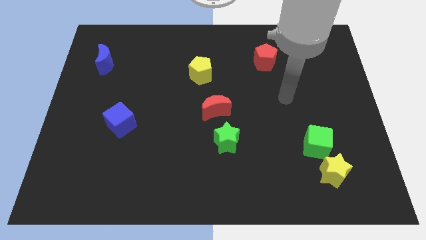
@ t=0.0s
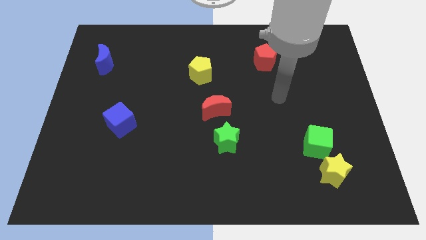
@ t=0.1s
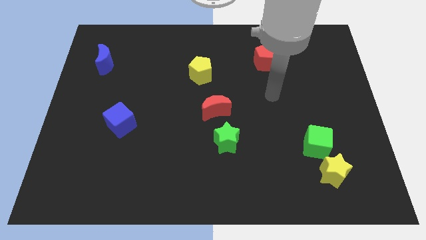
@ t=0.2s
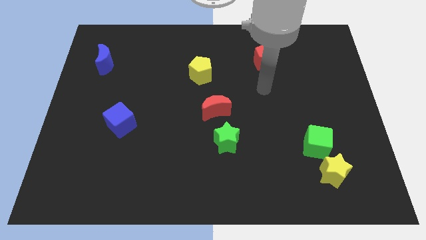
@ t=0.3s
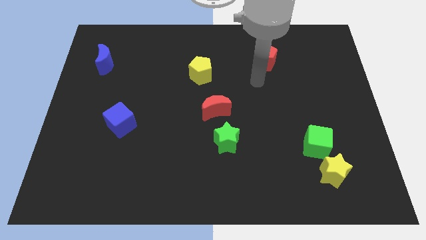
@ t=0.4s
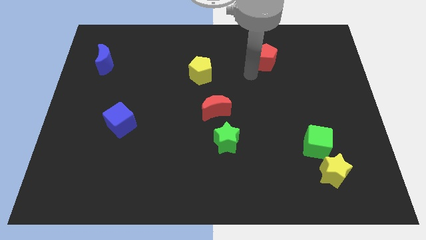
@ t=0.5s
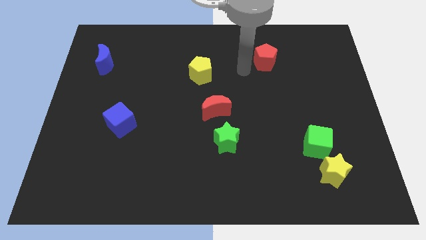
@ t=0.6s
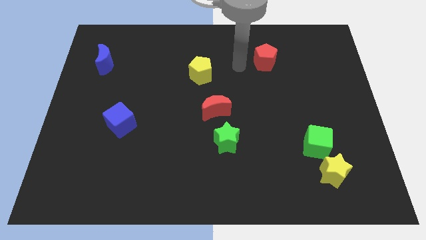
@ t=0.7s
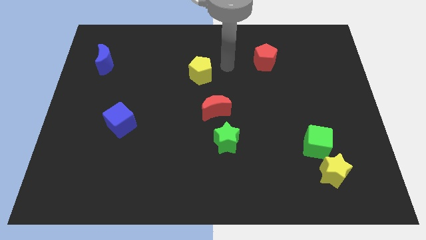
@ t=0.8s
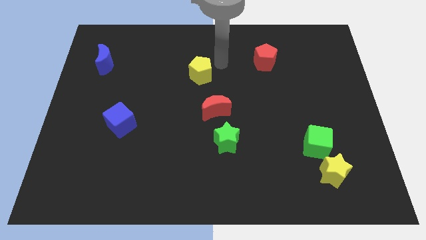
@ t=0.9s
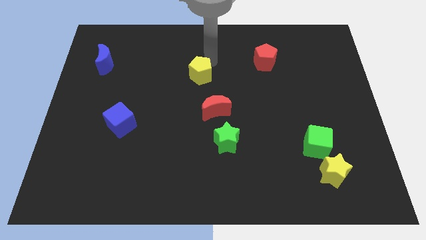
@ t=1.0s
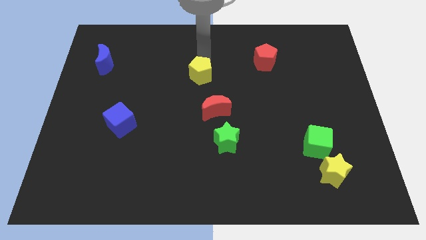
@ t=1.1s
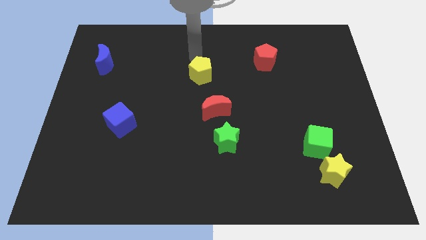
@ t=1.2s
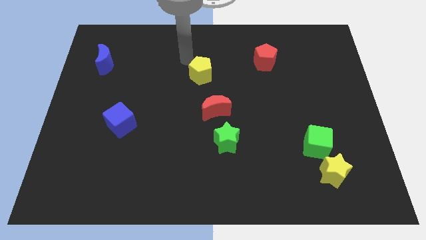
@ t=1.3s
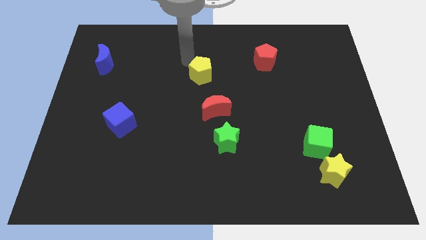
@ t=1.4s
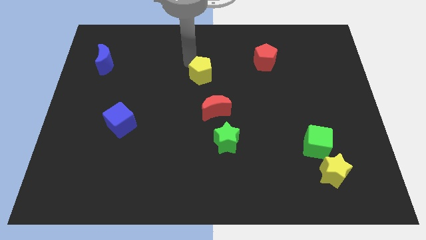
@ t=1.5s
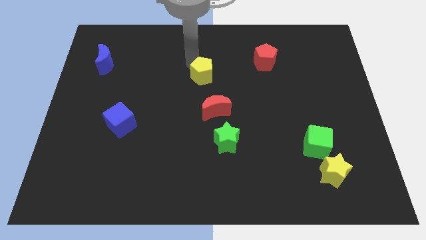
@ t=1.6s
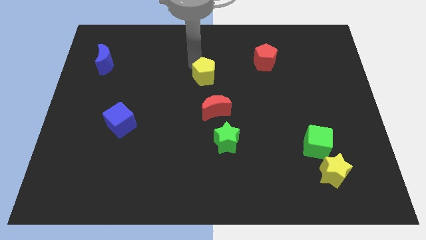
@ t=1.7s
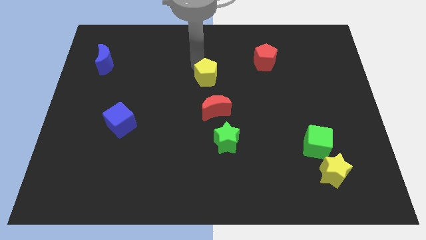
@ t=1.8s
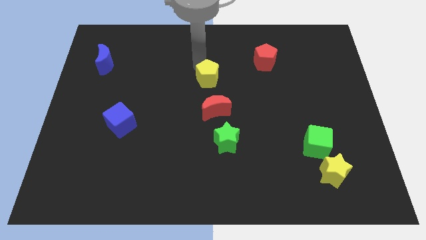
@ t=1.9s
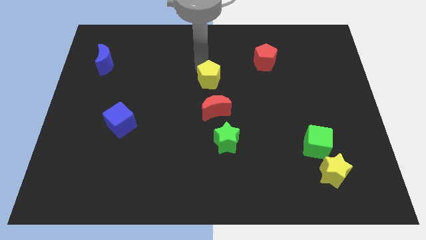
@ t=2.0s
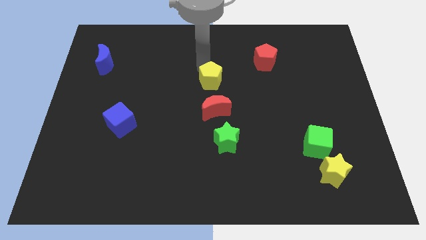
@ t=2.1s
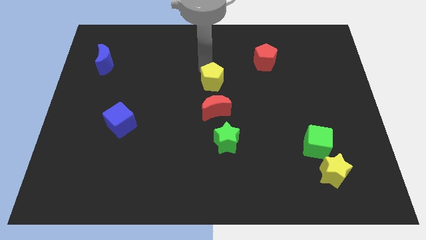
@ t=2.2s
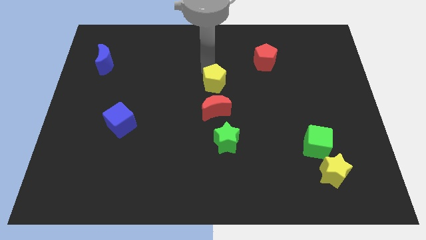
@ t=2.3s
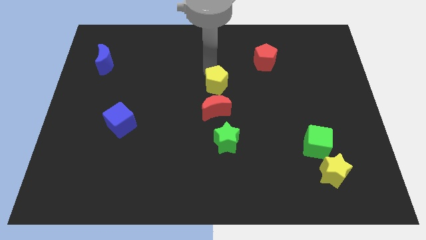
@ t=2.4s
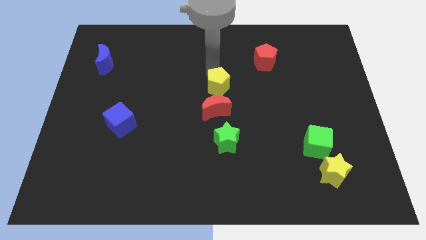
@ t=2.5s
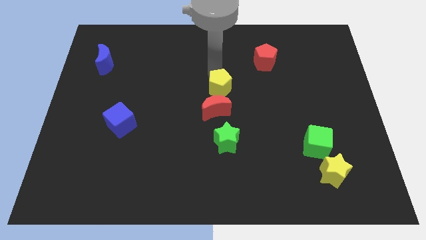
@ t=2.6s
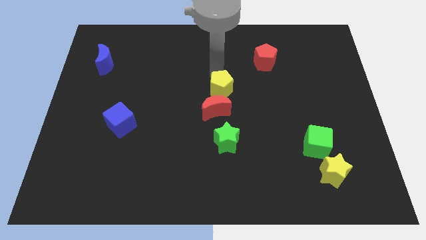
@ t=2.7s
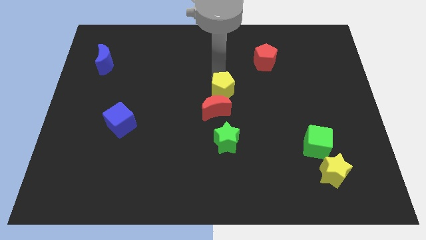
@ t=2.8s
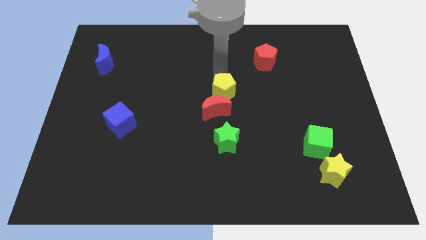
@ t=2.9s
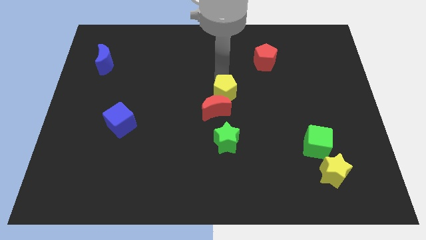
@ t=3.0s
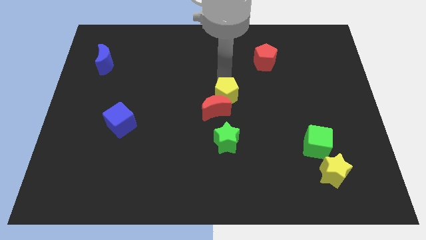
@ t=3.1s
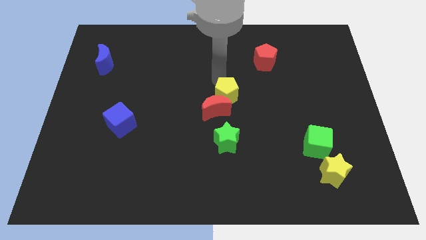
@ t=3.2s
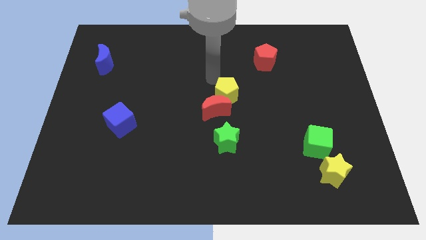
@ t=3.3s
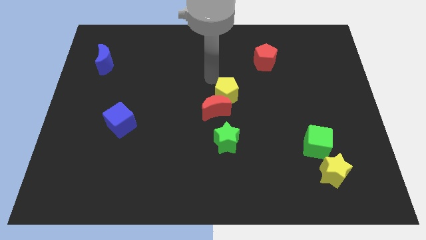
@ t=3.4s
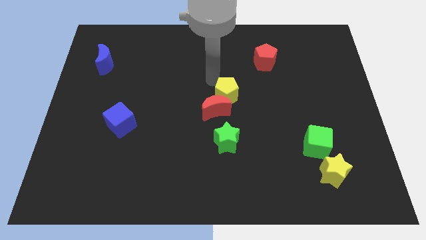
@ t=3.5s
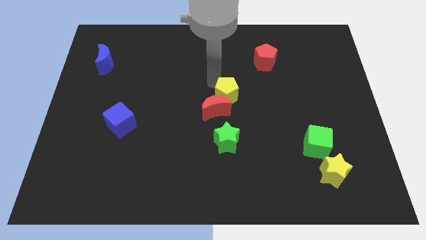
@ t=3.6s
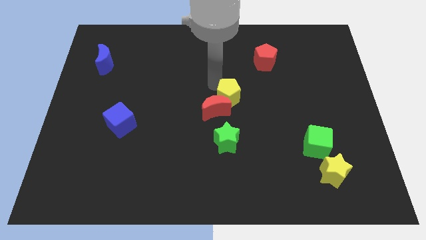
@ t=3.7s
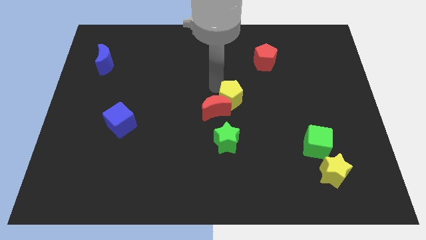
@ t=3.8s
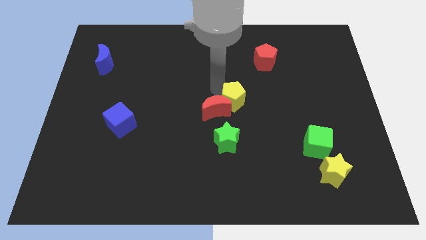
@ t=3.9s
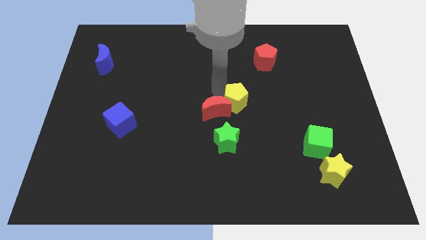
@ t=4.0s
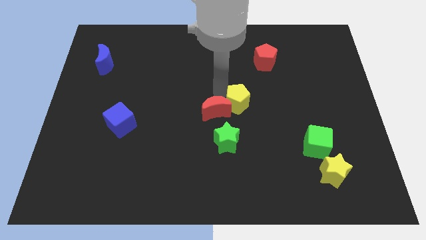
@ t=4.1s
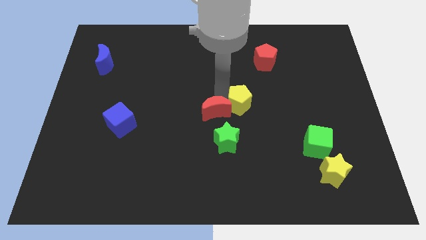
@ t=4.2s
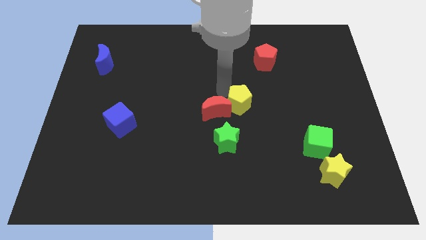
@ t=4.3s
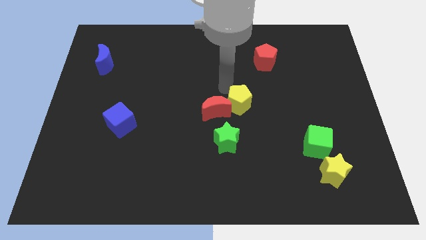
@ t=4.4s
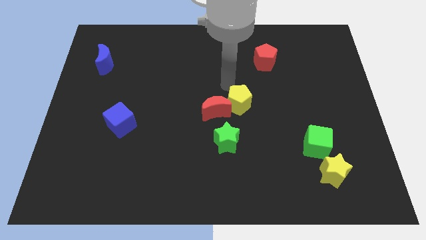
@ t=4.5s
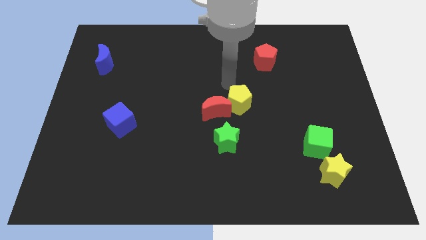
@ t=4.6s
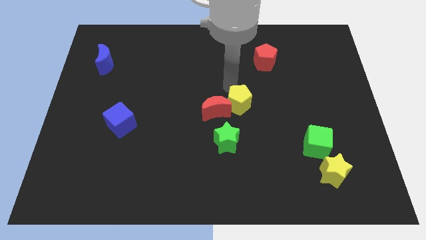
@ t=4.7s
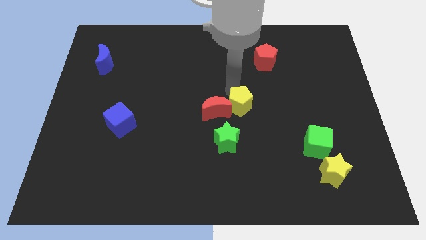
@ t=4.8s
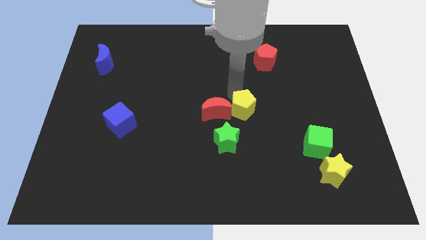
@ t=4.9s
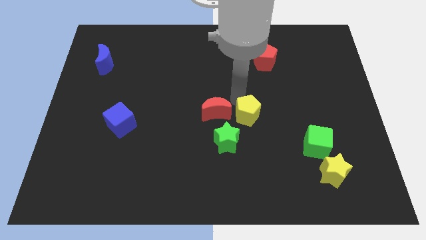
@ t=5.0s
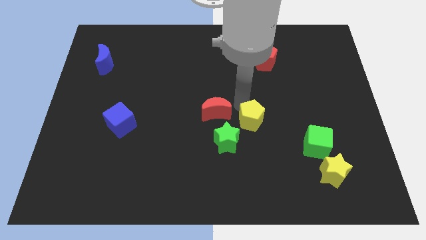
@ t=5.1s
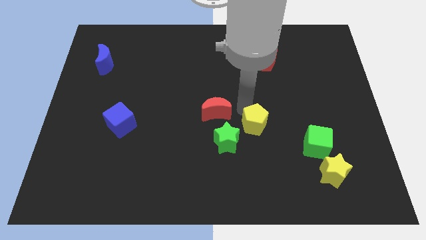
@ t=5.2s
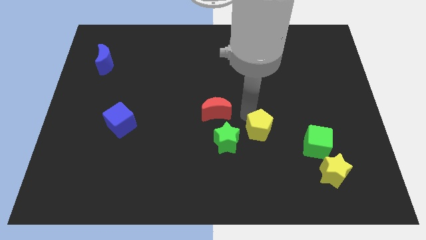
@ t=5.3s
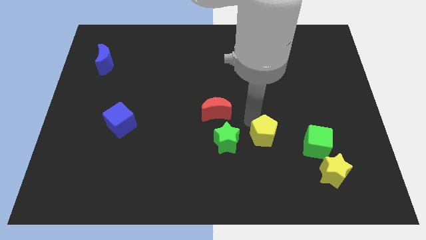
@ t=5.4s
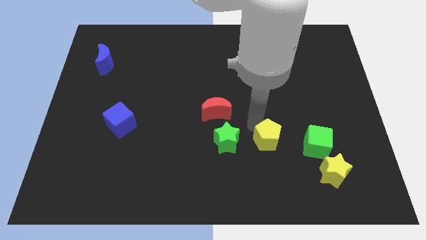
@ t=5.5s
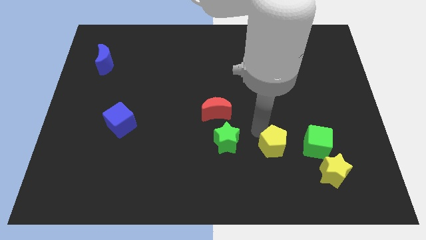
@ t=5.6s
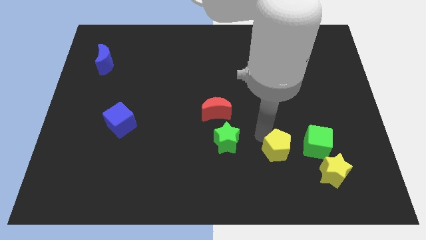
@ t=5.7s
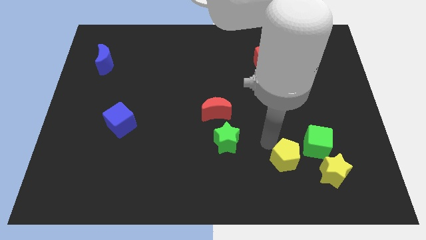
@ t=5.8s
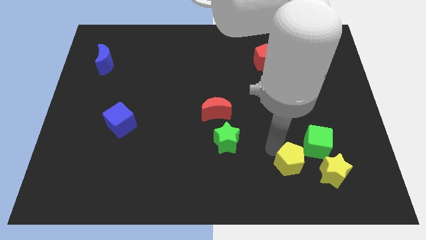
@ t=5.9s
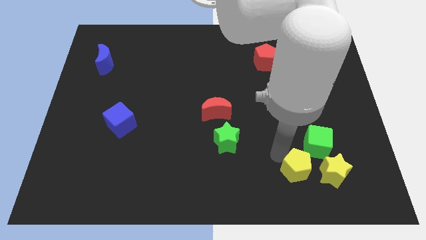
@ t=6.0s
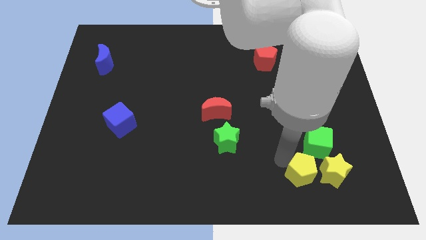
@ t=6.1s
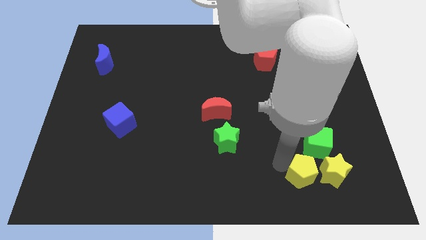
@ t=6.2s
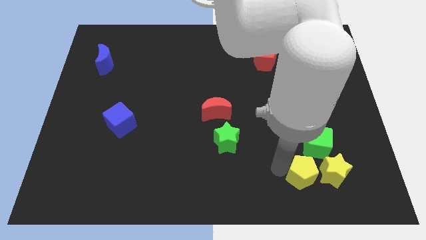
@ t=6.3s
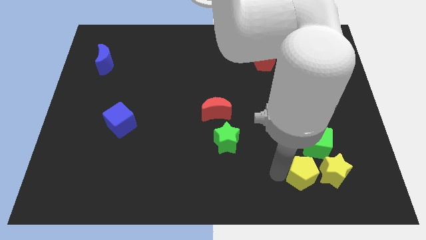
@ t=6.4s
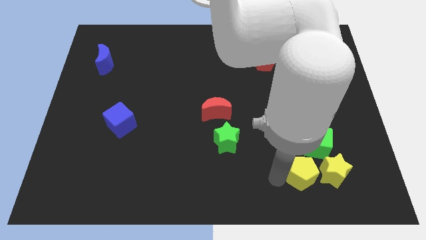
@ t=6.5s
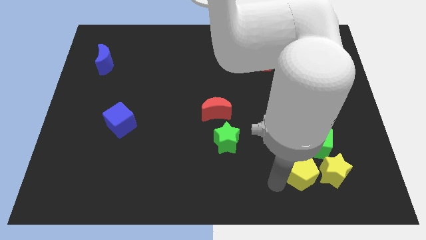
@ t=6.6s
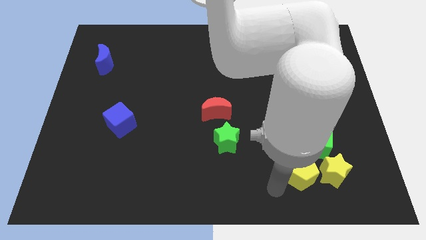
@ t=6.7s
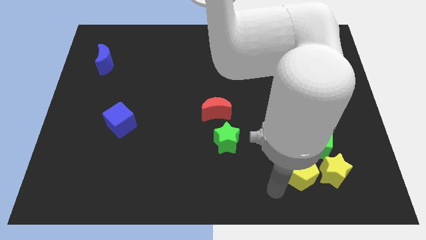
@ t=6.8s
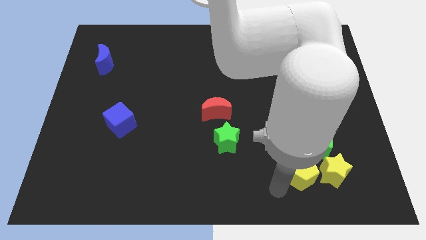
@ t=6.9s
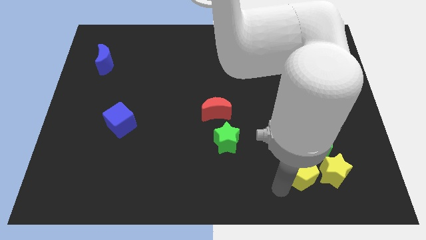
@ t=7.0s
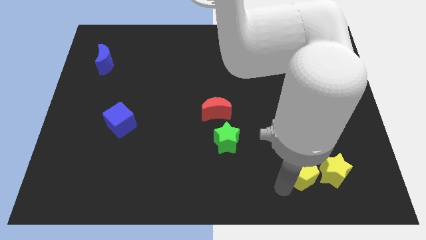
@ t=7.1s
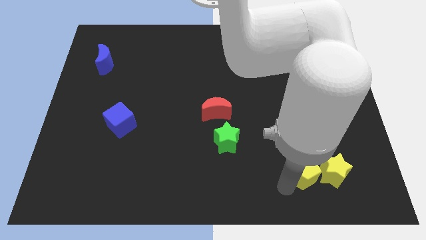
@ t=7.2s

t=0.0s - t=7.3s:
move the yellow pentagon towards the yellow star

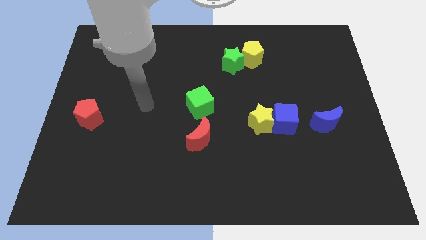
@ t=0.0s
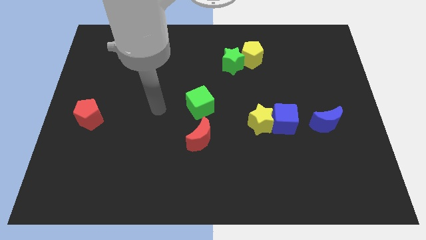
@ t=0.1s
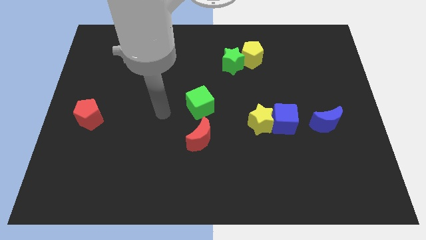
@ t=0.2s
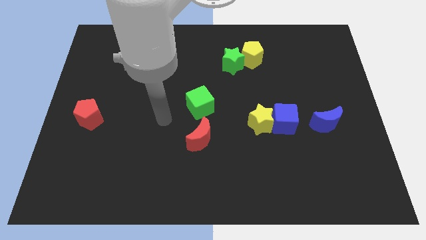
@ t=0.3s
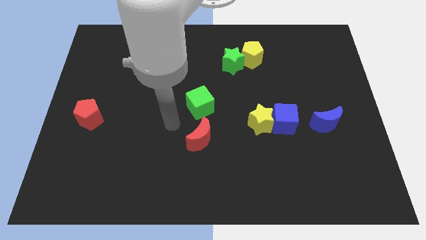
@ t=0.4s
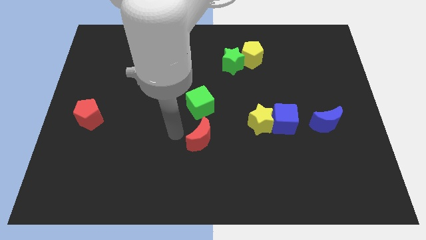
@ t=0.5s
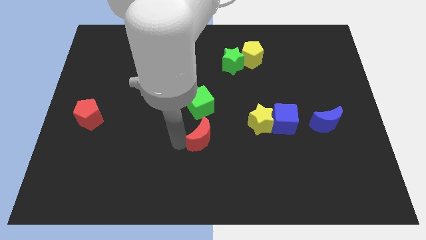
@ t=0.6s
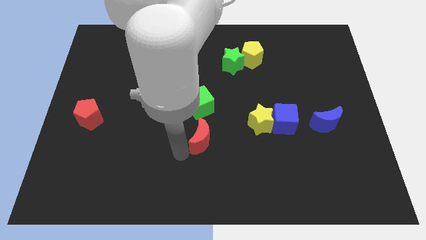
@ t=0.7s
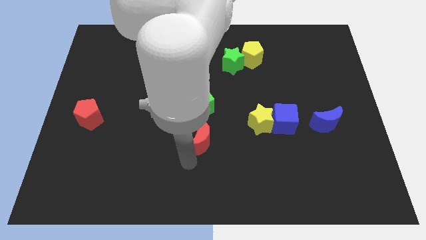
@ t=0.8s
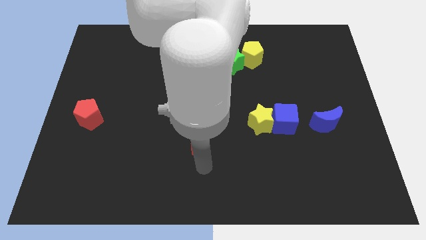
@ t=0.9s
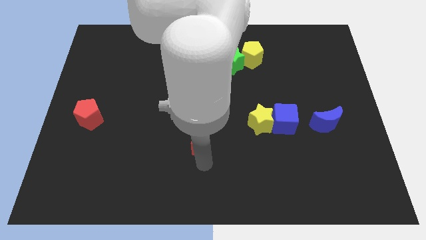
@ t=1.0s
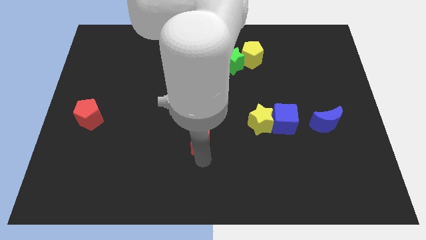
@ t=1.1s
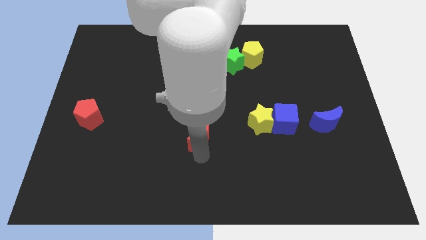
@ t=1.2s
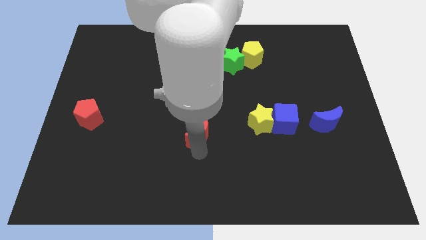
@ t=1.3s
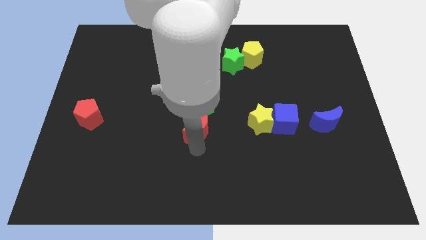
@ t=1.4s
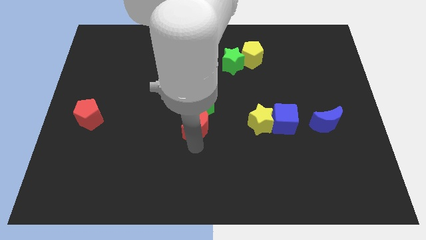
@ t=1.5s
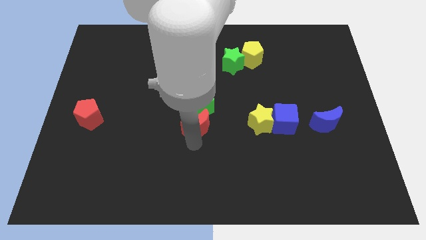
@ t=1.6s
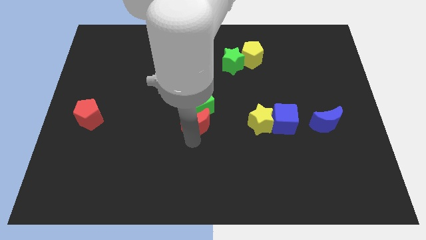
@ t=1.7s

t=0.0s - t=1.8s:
move the red moon towards the green cube
